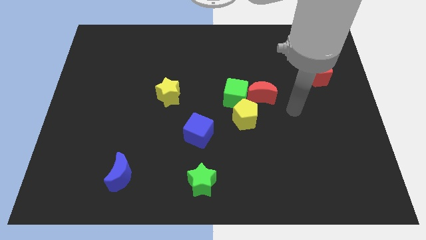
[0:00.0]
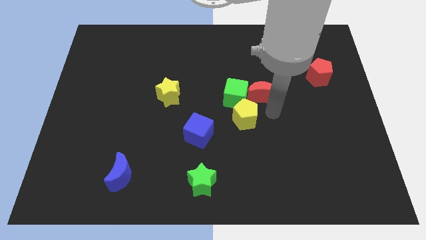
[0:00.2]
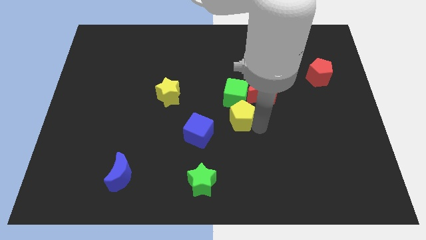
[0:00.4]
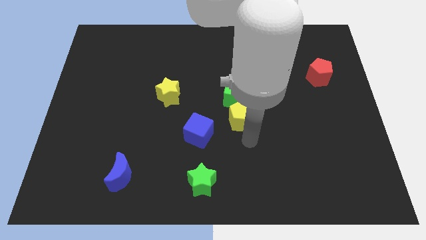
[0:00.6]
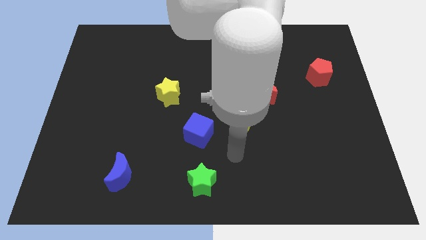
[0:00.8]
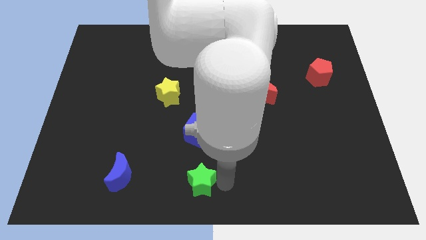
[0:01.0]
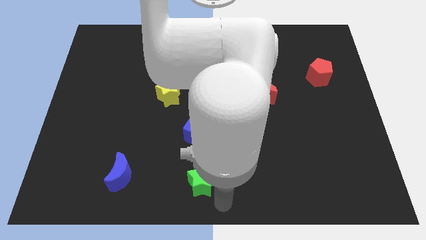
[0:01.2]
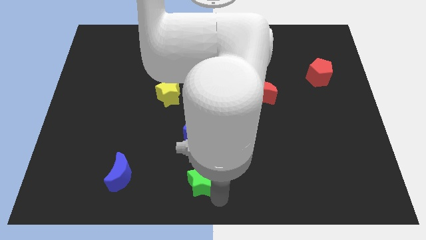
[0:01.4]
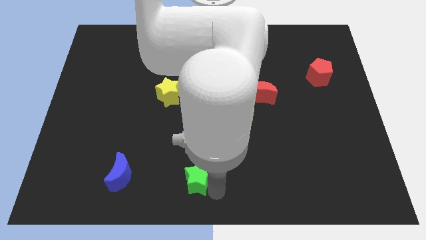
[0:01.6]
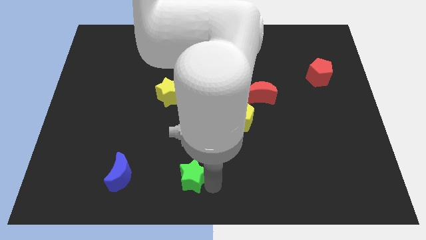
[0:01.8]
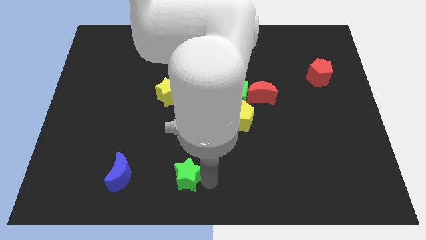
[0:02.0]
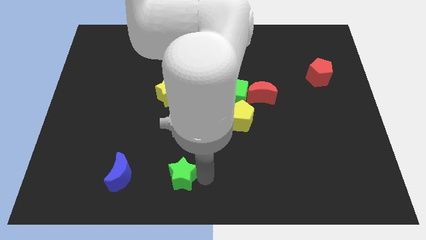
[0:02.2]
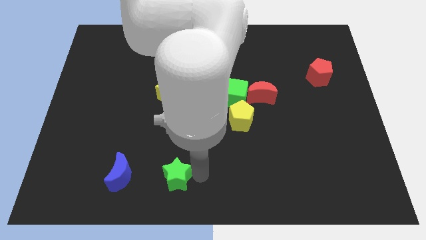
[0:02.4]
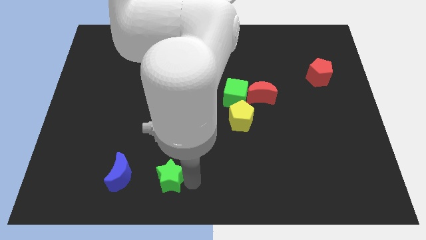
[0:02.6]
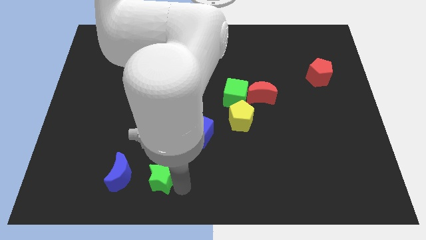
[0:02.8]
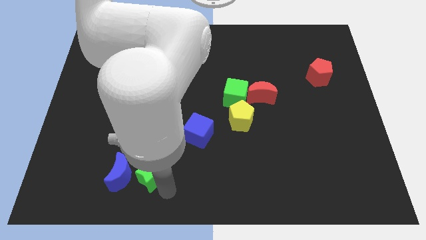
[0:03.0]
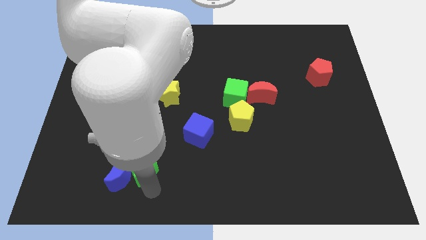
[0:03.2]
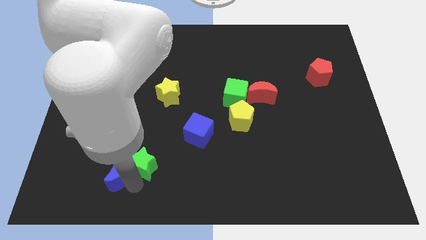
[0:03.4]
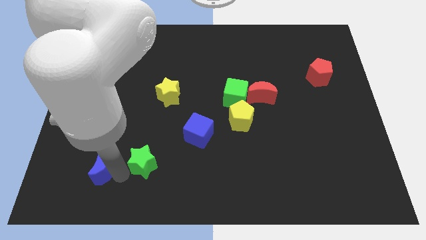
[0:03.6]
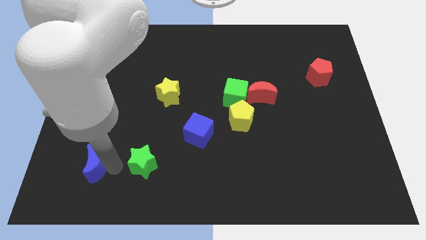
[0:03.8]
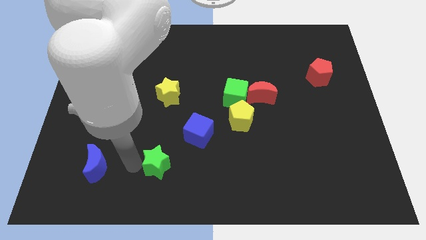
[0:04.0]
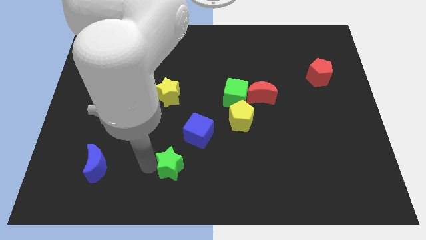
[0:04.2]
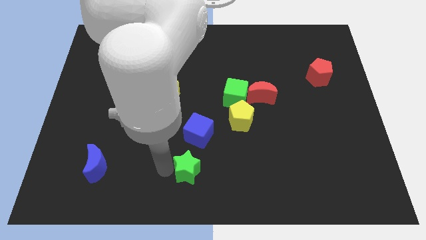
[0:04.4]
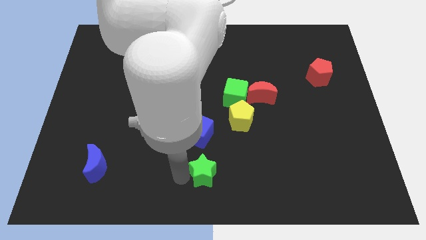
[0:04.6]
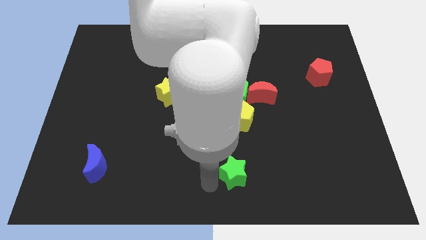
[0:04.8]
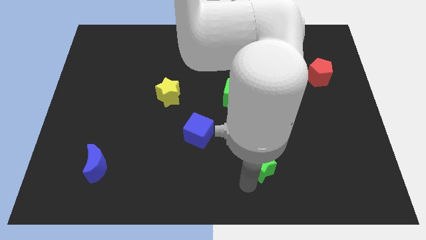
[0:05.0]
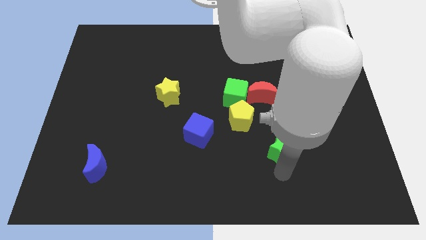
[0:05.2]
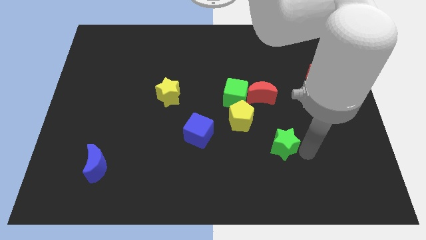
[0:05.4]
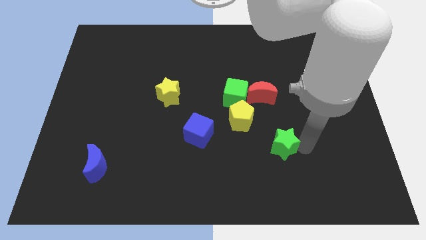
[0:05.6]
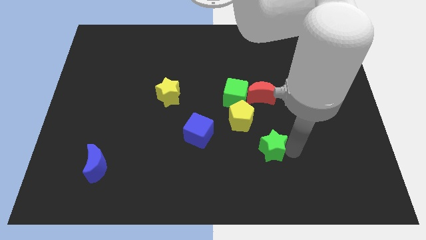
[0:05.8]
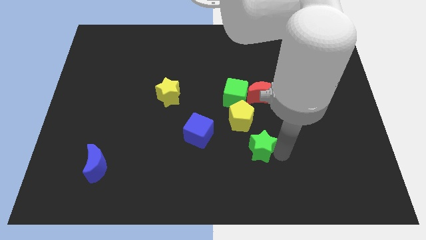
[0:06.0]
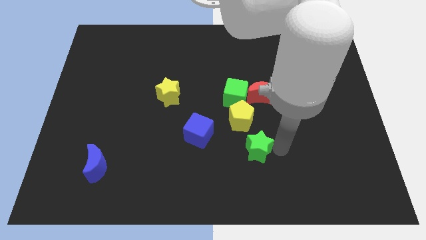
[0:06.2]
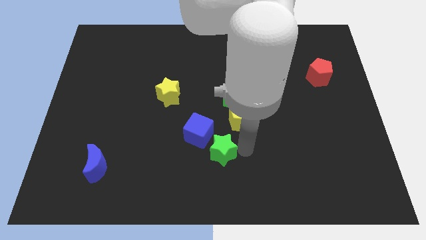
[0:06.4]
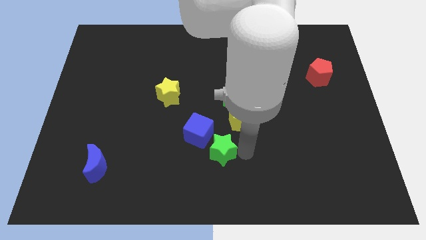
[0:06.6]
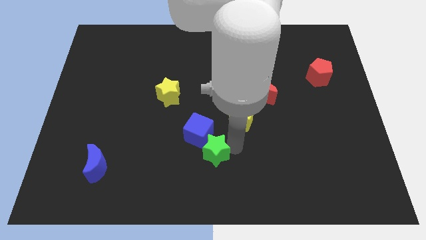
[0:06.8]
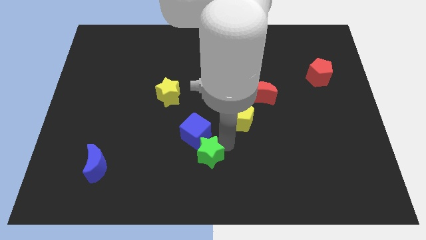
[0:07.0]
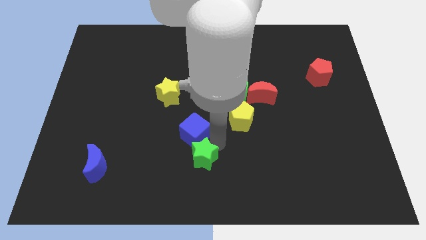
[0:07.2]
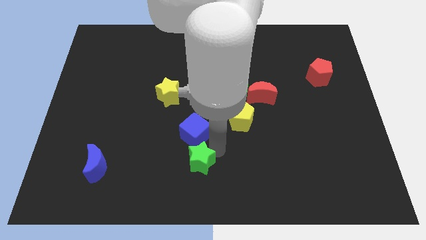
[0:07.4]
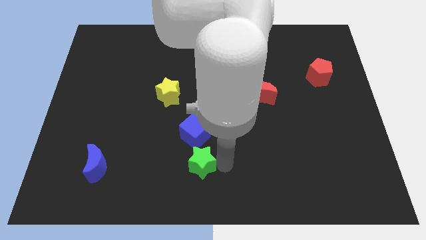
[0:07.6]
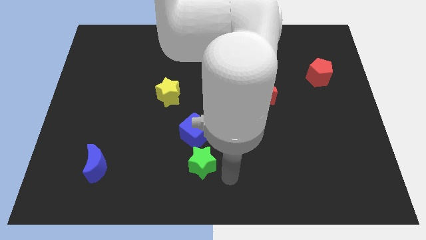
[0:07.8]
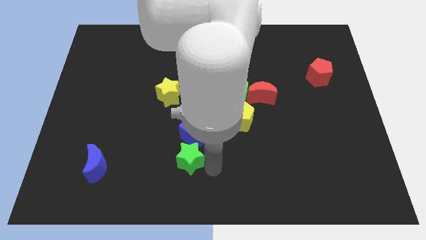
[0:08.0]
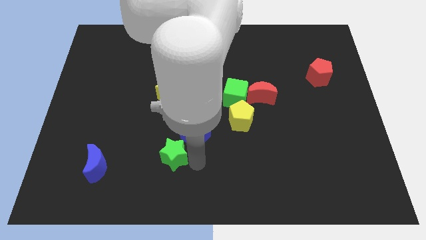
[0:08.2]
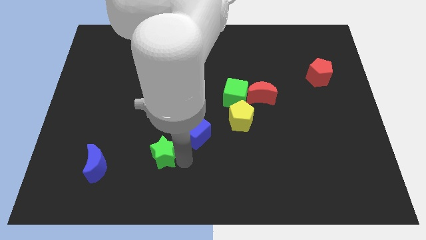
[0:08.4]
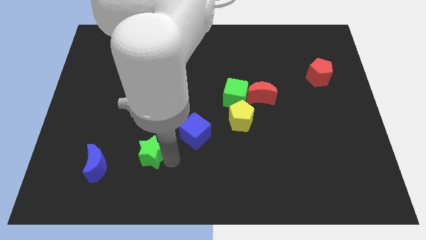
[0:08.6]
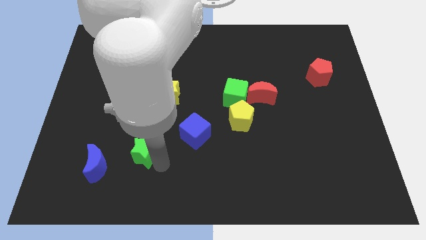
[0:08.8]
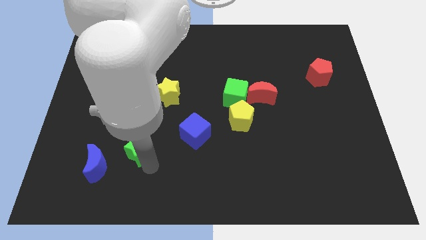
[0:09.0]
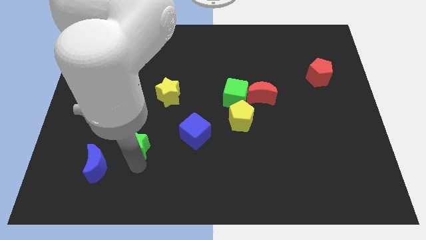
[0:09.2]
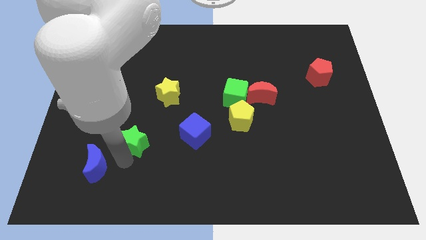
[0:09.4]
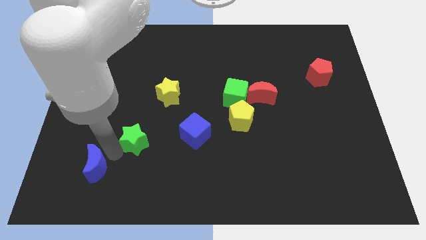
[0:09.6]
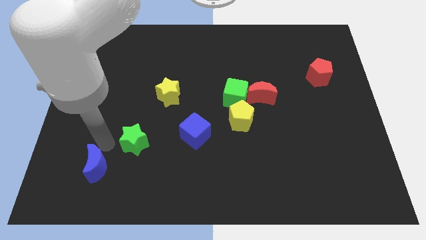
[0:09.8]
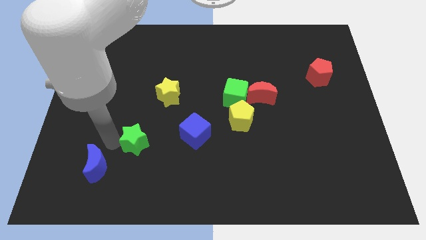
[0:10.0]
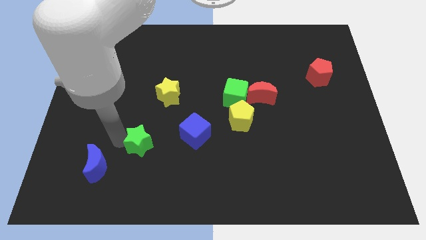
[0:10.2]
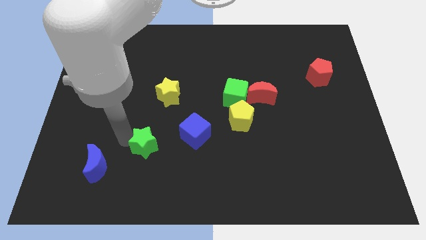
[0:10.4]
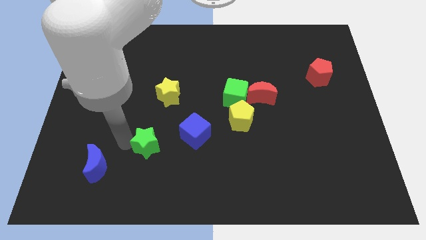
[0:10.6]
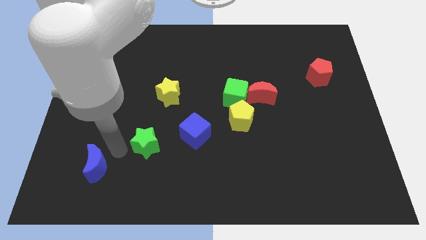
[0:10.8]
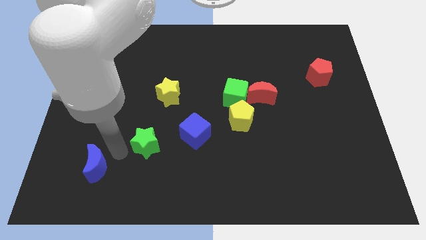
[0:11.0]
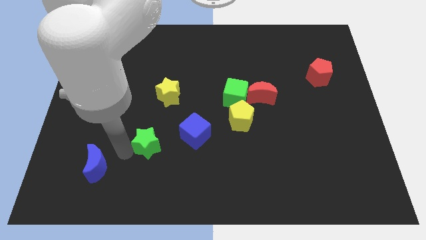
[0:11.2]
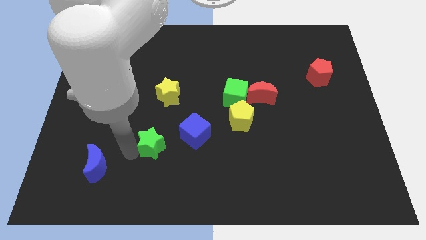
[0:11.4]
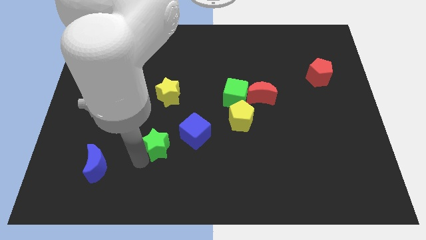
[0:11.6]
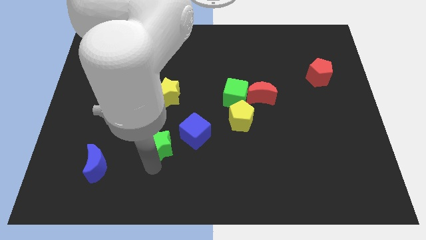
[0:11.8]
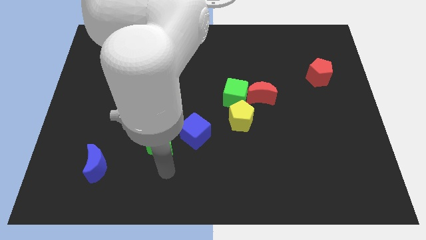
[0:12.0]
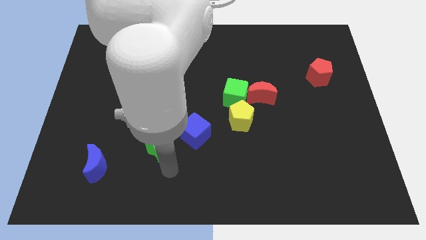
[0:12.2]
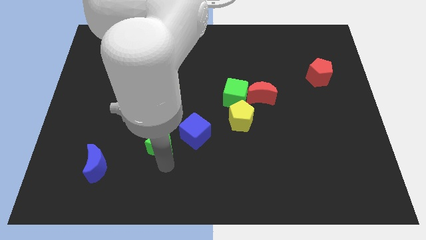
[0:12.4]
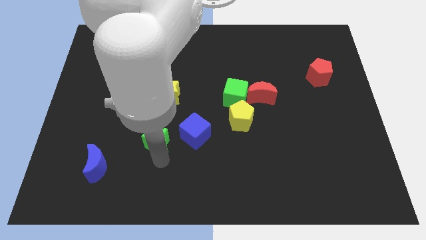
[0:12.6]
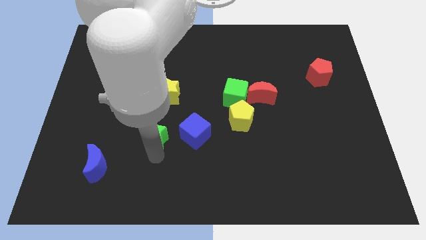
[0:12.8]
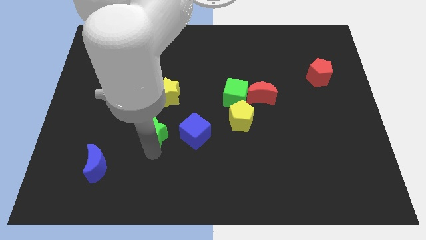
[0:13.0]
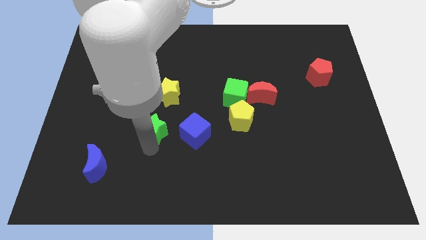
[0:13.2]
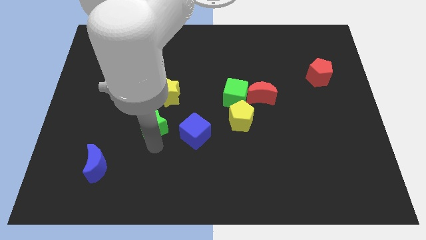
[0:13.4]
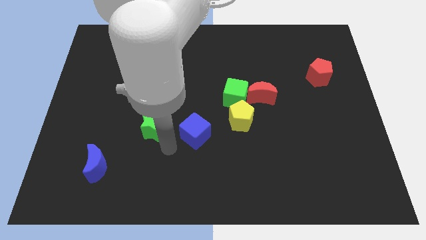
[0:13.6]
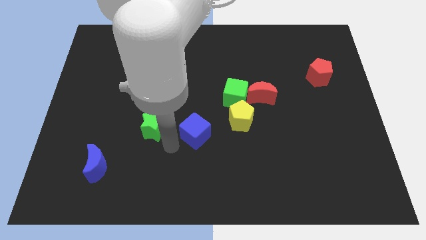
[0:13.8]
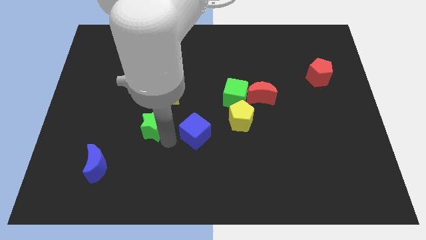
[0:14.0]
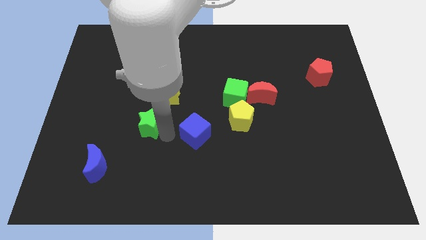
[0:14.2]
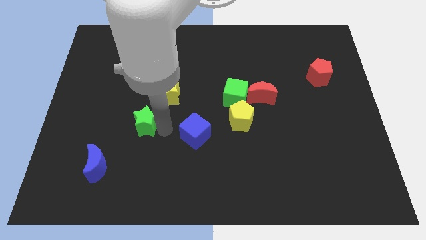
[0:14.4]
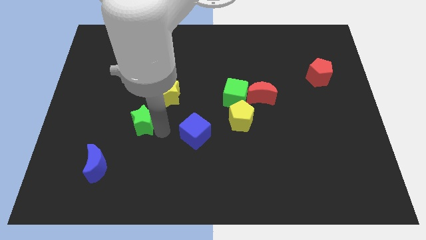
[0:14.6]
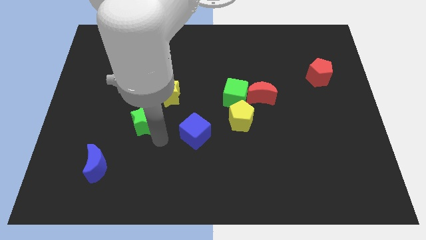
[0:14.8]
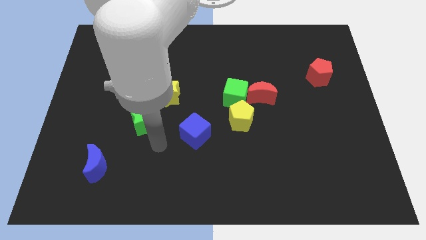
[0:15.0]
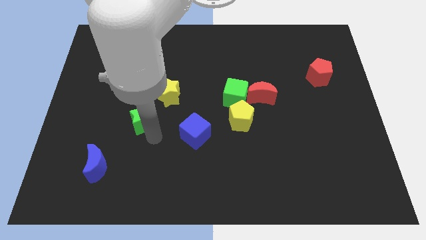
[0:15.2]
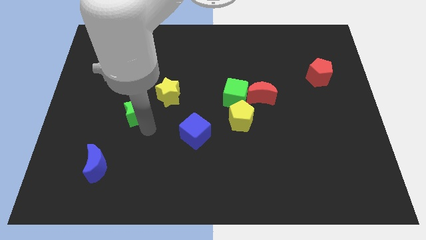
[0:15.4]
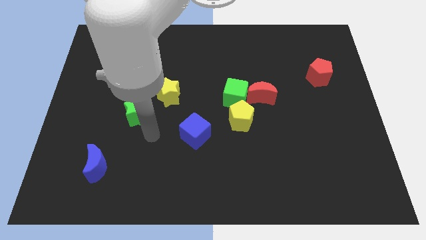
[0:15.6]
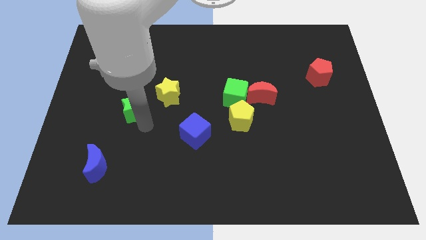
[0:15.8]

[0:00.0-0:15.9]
move the green star left of the yellow star

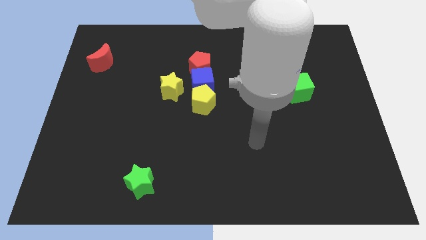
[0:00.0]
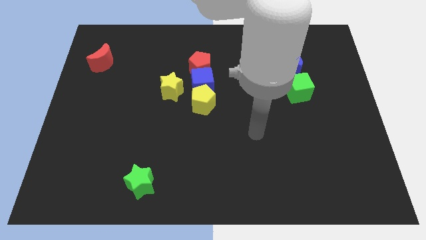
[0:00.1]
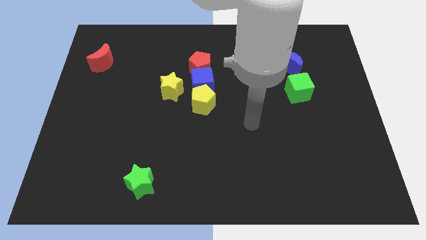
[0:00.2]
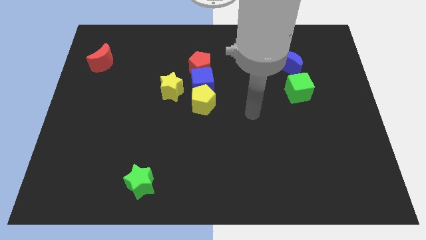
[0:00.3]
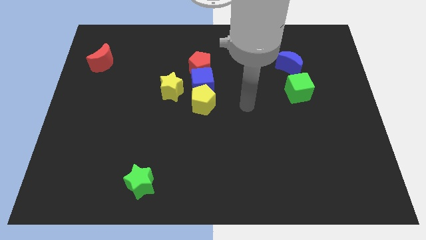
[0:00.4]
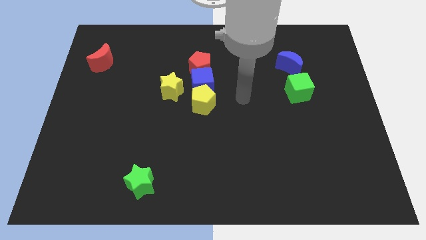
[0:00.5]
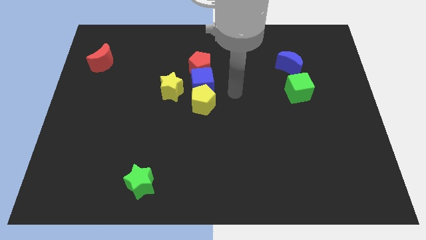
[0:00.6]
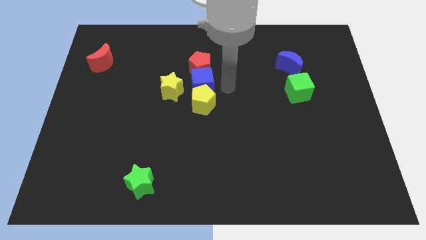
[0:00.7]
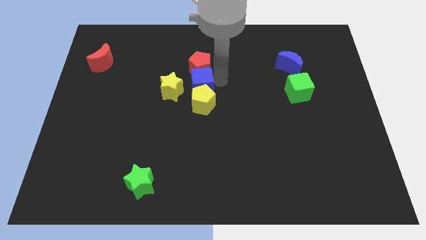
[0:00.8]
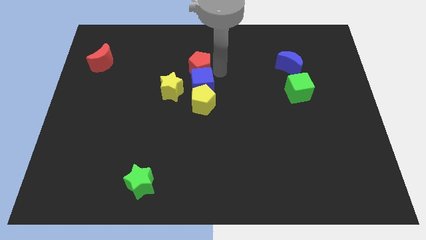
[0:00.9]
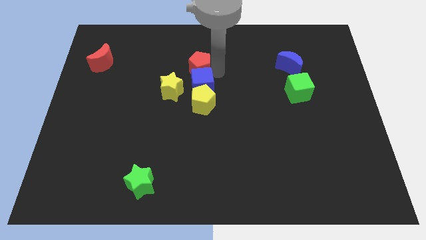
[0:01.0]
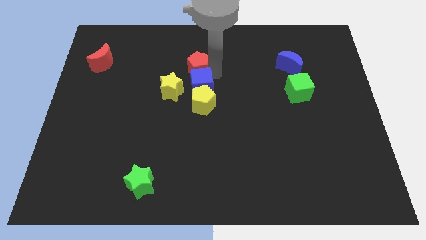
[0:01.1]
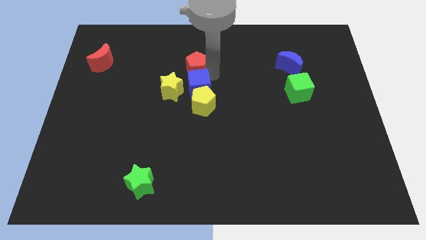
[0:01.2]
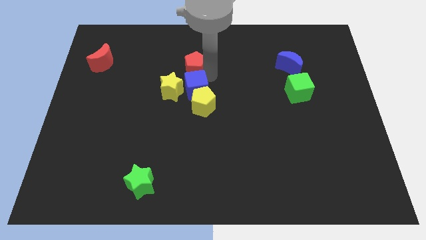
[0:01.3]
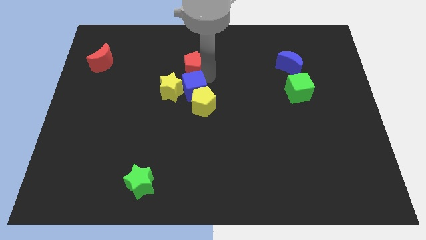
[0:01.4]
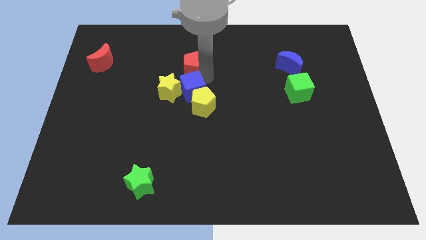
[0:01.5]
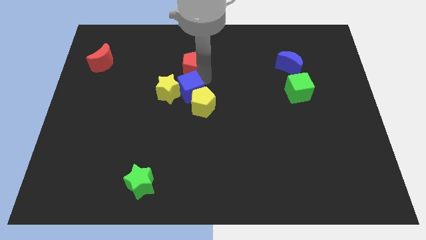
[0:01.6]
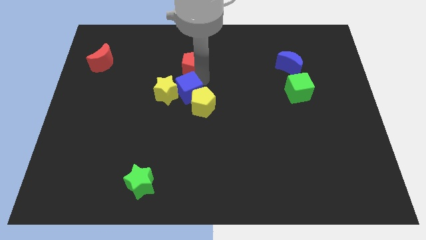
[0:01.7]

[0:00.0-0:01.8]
put the blue cube to the left side of the yellow pentagon
